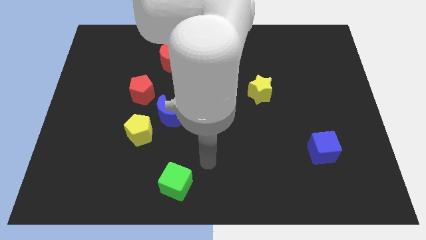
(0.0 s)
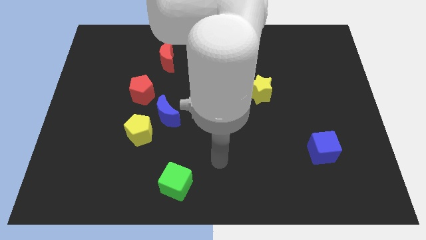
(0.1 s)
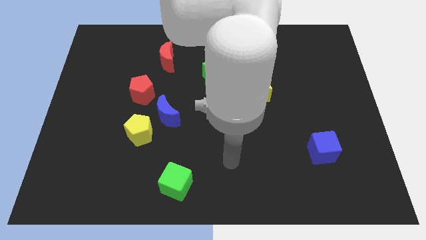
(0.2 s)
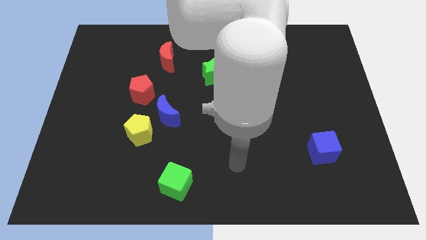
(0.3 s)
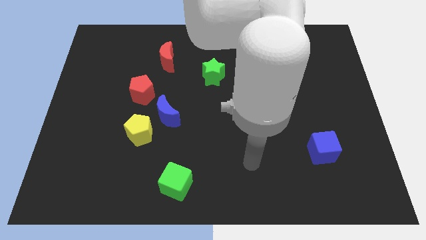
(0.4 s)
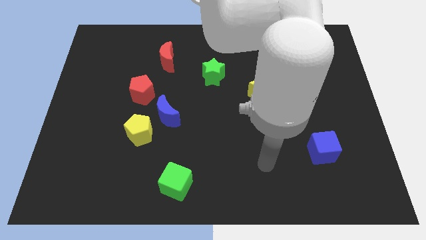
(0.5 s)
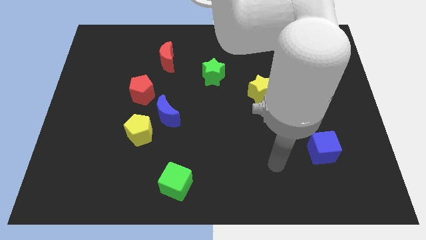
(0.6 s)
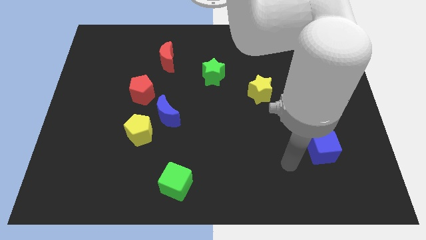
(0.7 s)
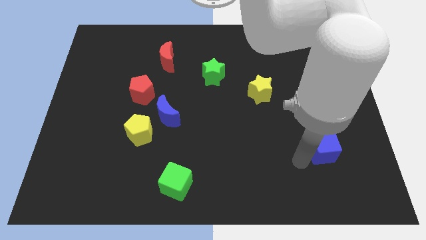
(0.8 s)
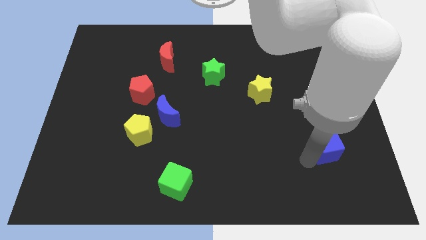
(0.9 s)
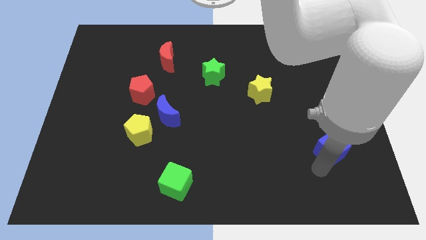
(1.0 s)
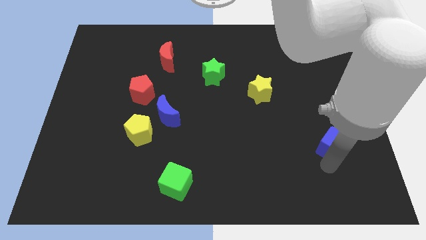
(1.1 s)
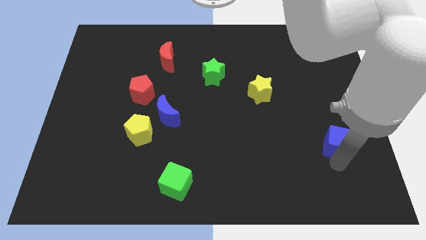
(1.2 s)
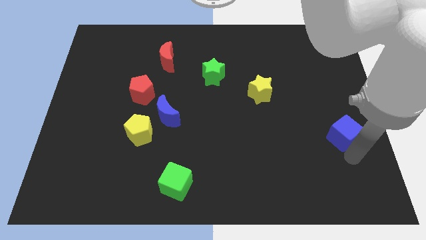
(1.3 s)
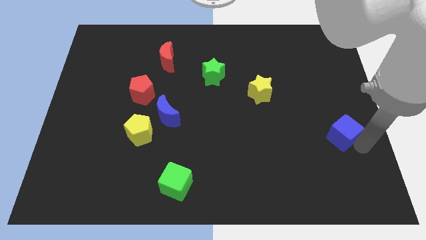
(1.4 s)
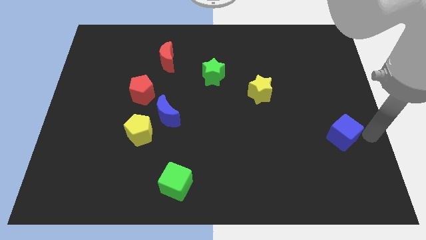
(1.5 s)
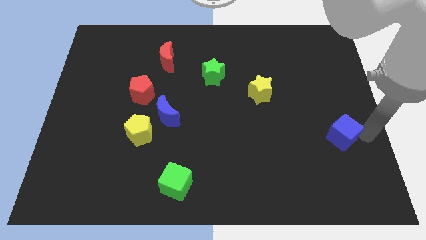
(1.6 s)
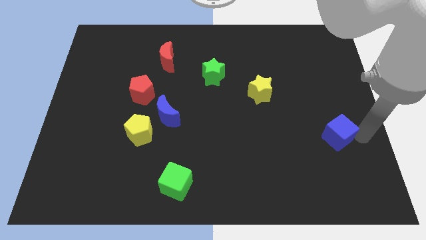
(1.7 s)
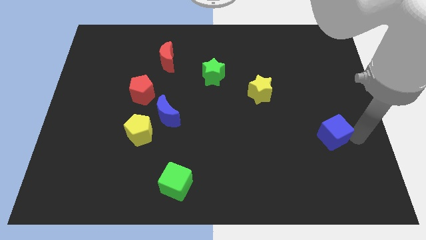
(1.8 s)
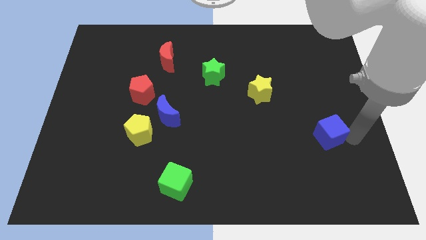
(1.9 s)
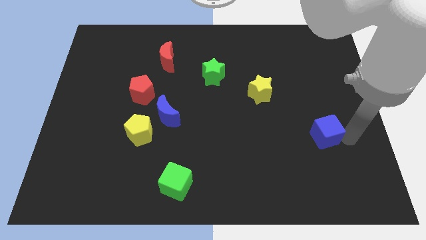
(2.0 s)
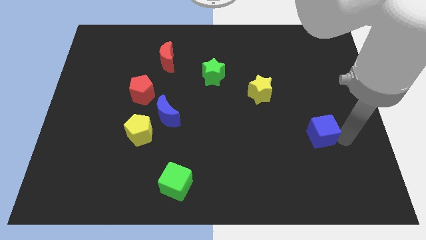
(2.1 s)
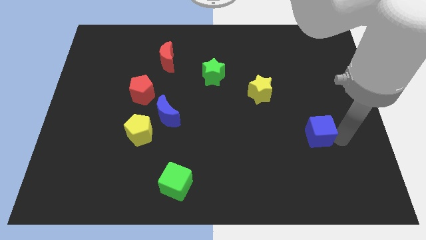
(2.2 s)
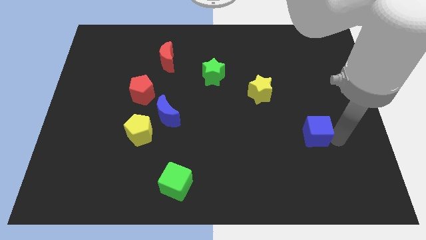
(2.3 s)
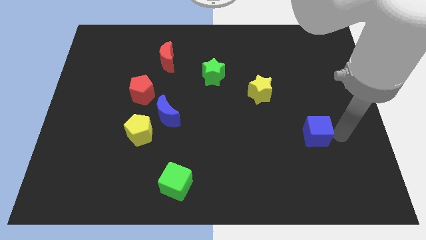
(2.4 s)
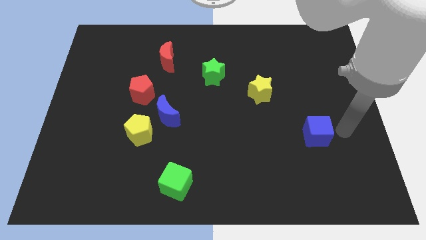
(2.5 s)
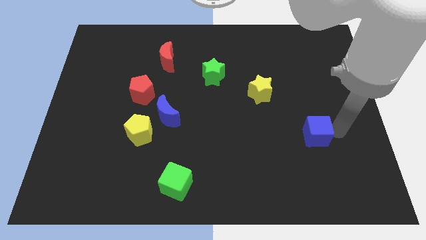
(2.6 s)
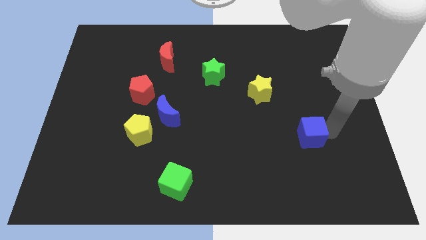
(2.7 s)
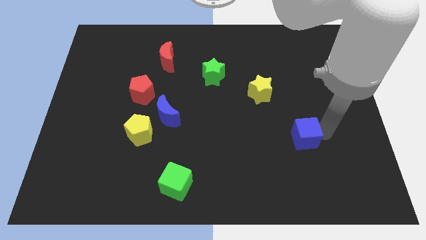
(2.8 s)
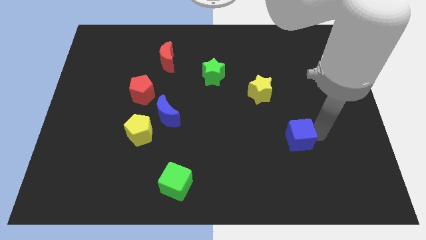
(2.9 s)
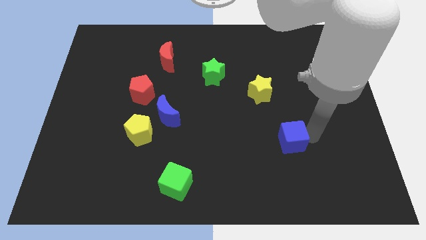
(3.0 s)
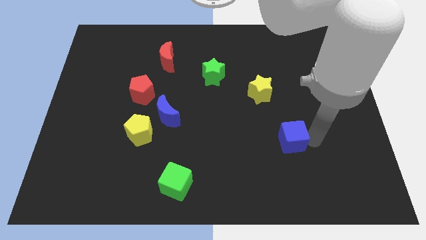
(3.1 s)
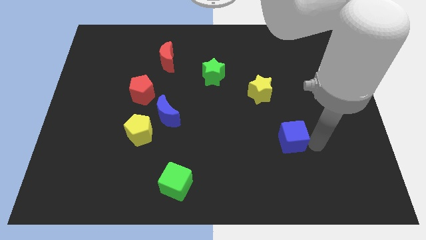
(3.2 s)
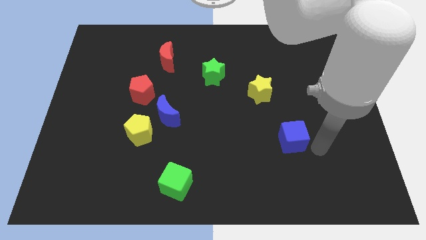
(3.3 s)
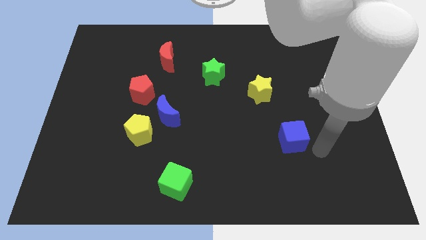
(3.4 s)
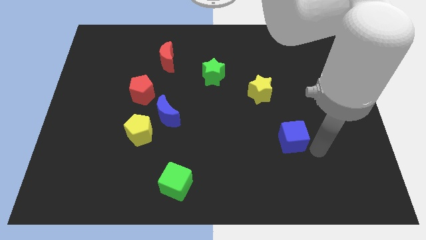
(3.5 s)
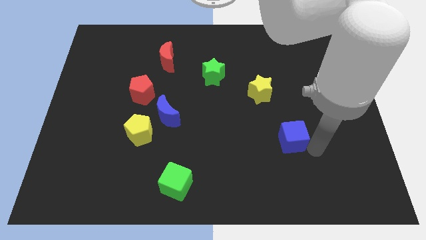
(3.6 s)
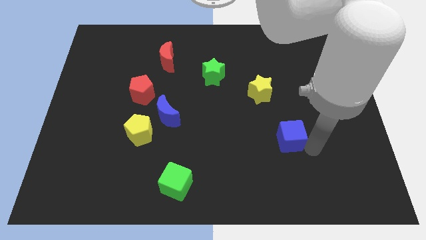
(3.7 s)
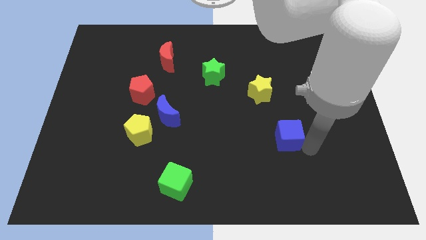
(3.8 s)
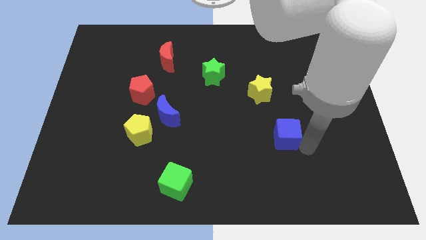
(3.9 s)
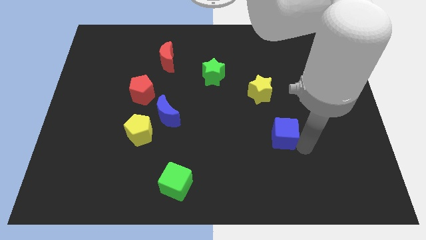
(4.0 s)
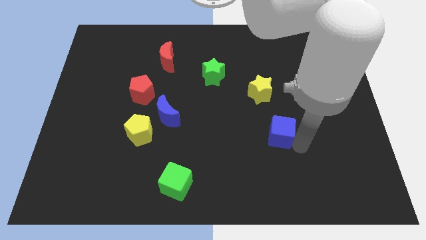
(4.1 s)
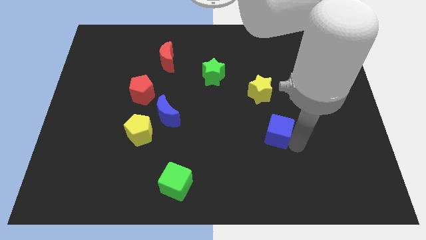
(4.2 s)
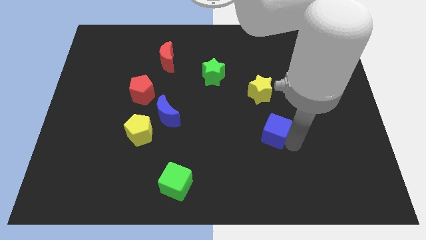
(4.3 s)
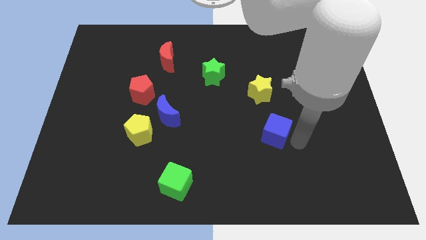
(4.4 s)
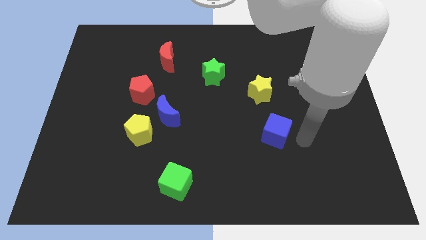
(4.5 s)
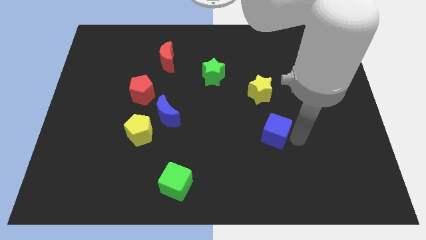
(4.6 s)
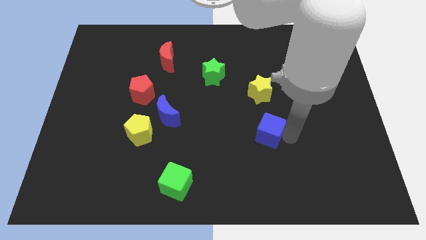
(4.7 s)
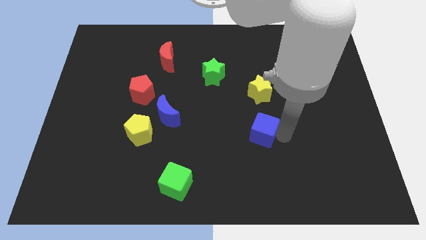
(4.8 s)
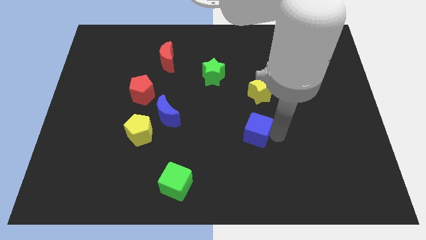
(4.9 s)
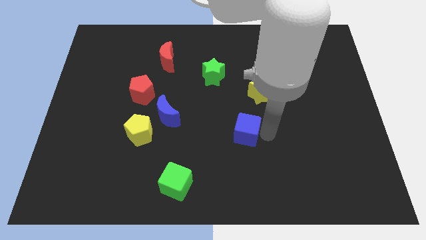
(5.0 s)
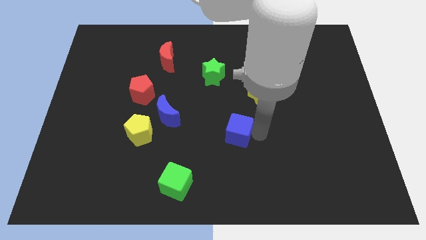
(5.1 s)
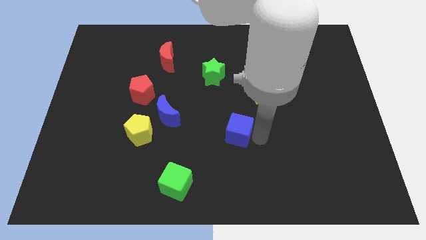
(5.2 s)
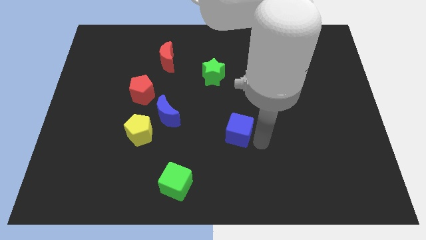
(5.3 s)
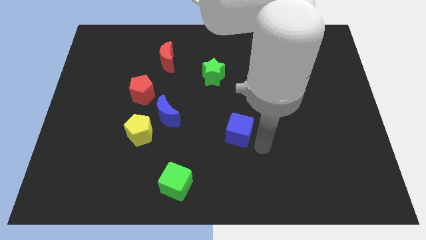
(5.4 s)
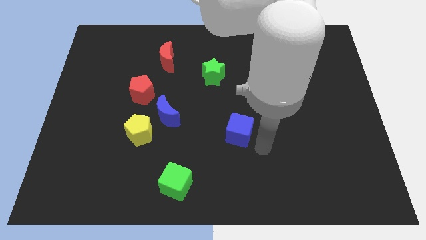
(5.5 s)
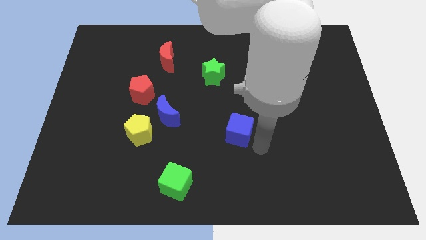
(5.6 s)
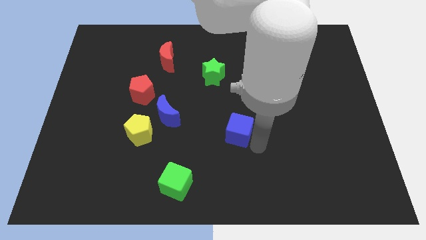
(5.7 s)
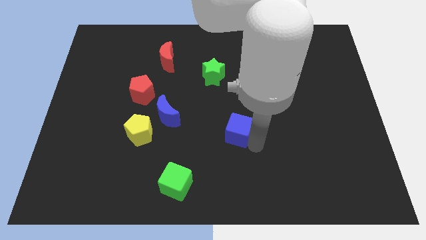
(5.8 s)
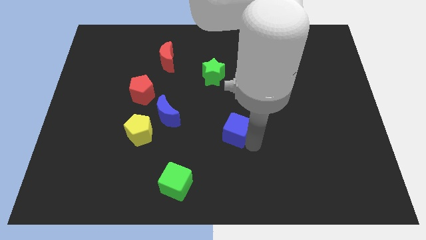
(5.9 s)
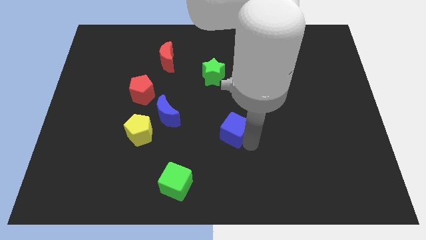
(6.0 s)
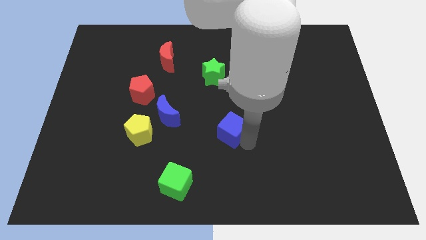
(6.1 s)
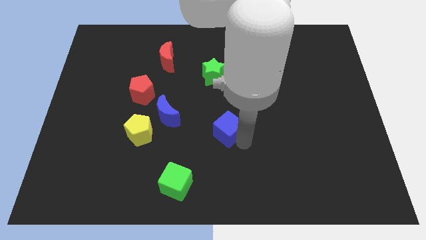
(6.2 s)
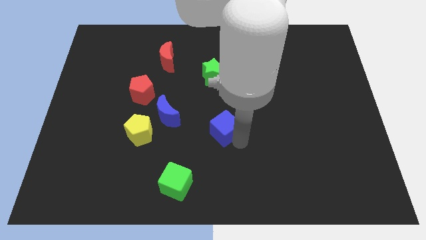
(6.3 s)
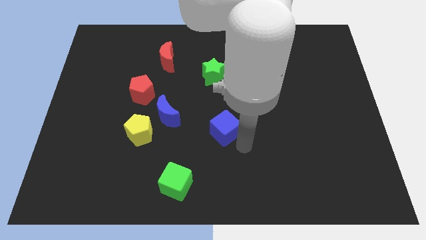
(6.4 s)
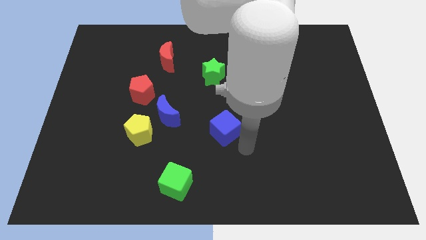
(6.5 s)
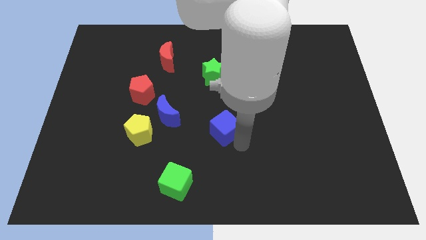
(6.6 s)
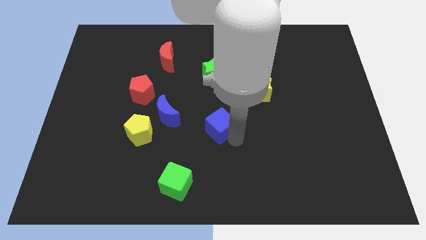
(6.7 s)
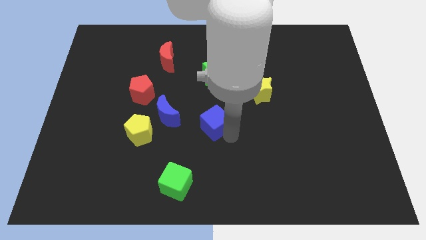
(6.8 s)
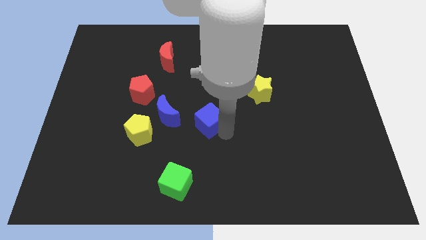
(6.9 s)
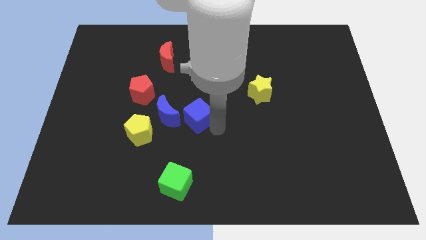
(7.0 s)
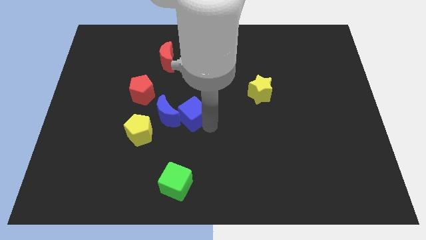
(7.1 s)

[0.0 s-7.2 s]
slide the blue cube to the top right of the blue moon
